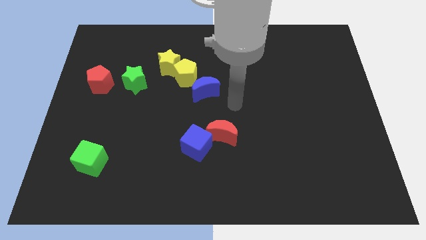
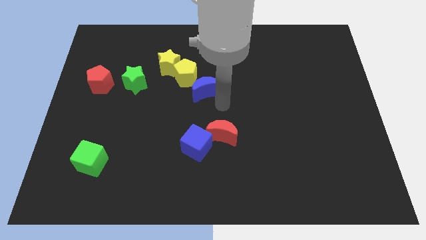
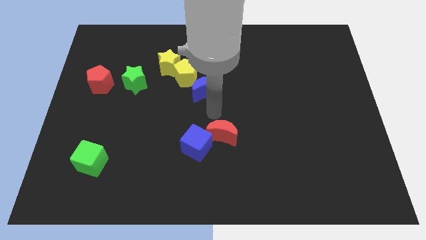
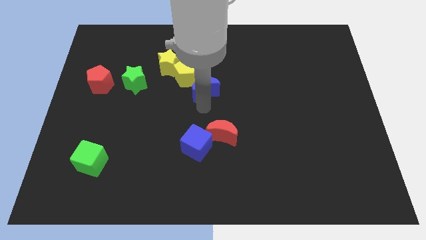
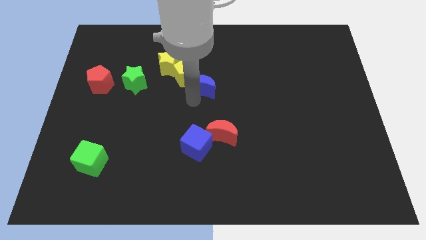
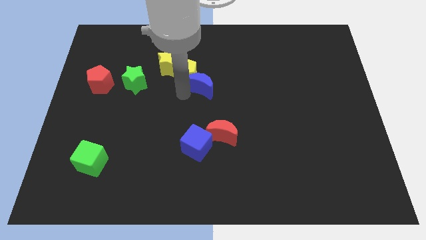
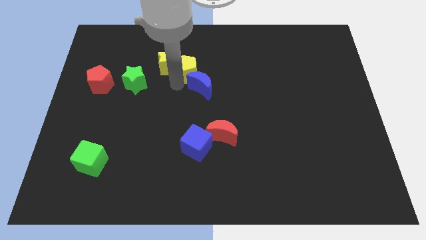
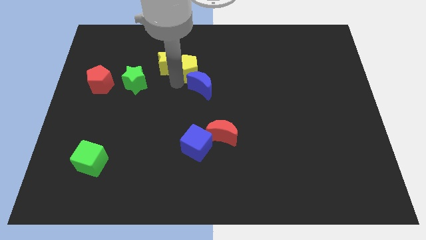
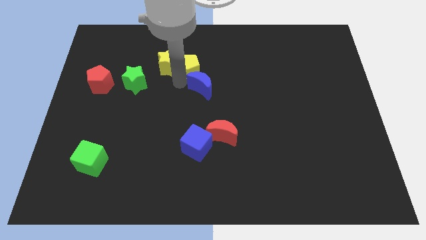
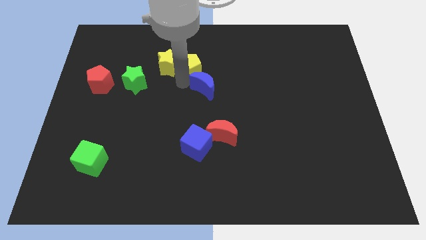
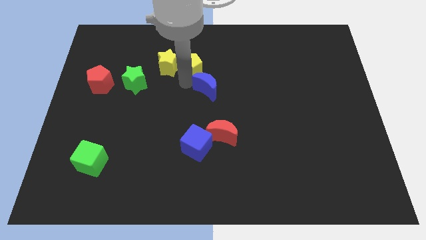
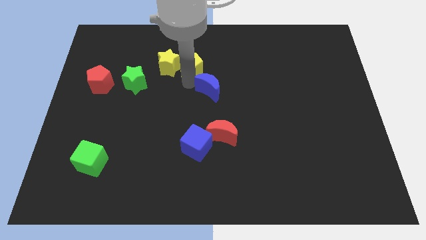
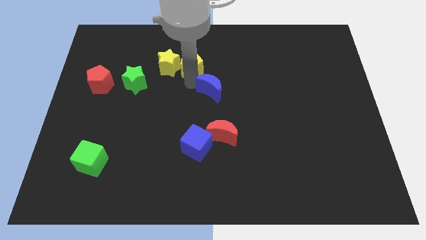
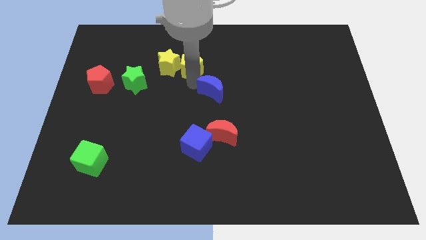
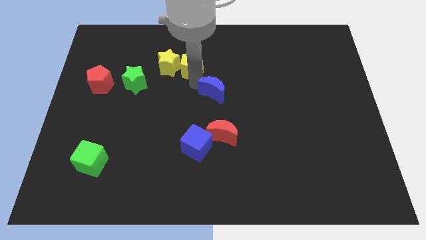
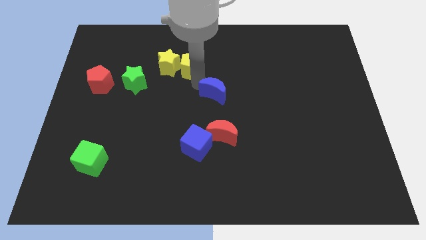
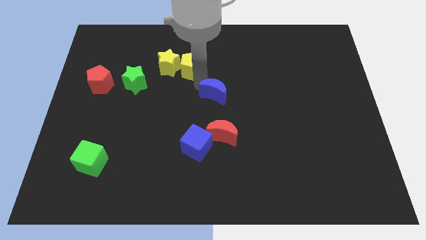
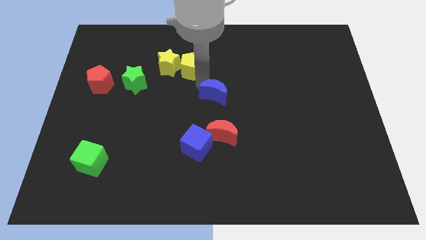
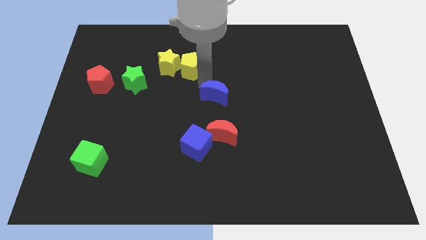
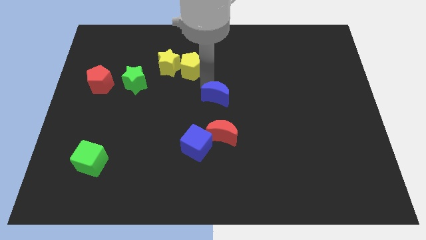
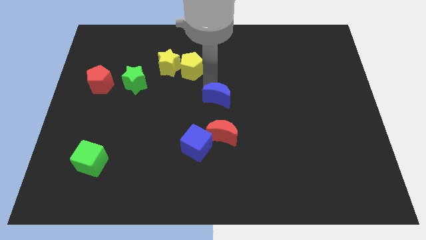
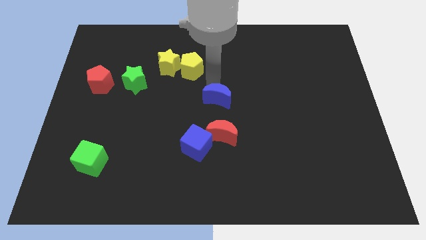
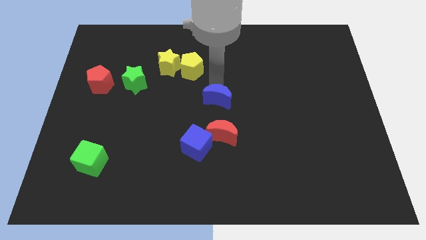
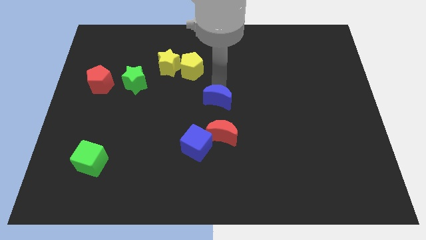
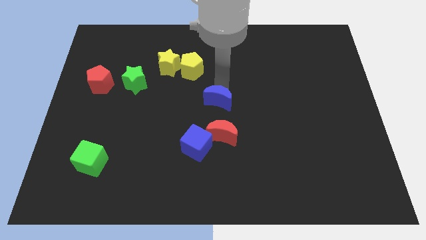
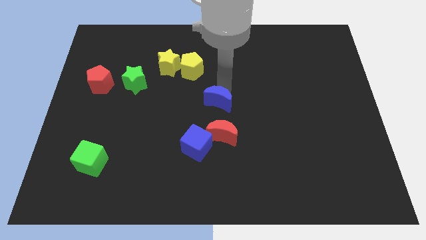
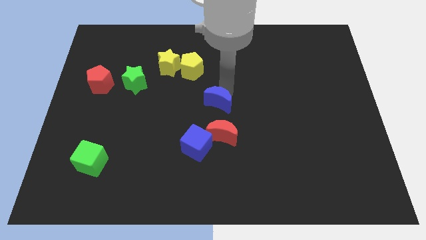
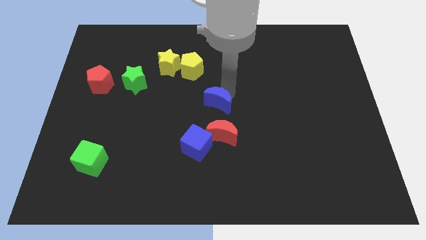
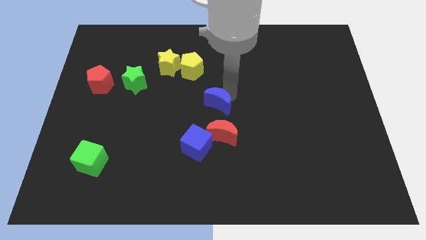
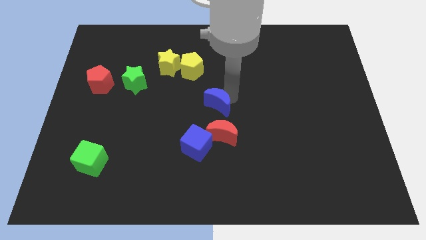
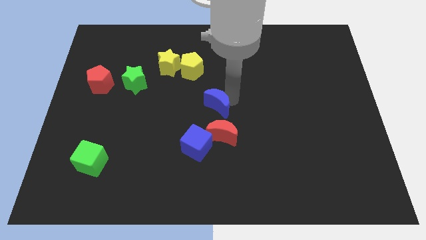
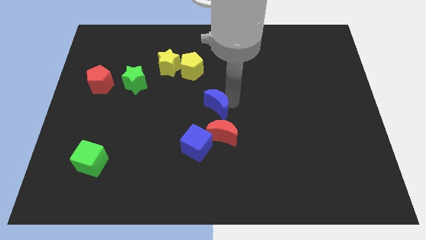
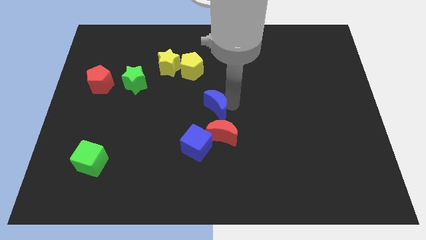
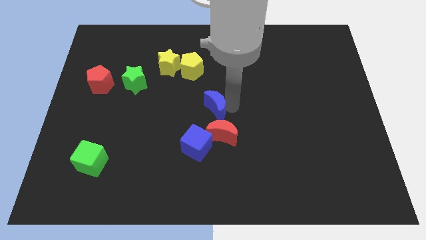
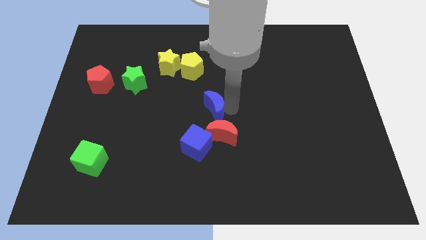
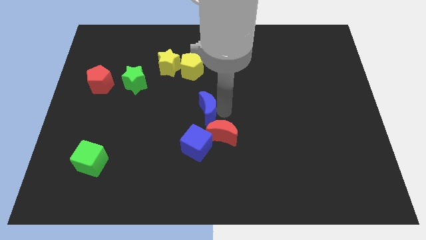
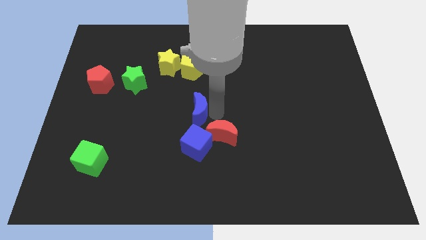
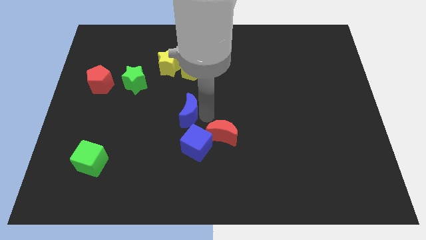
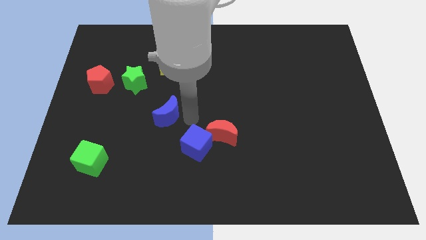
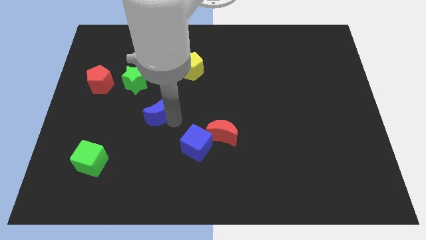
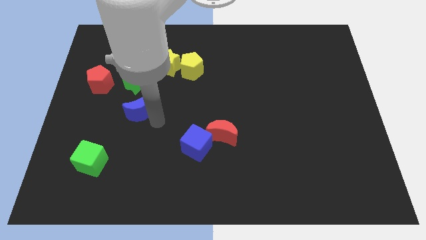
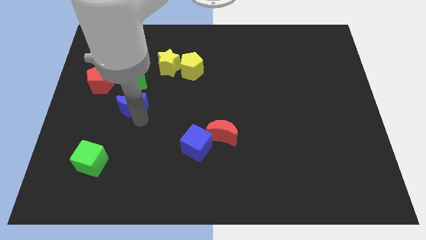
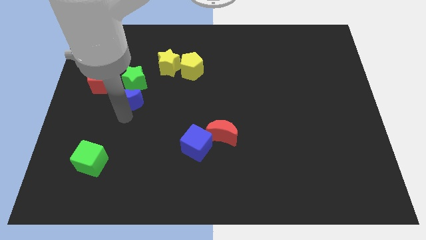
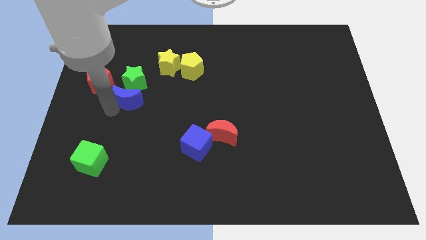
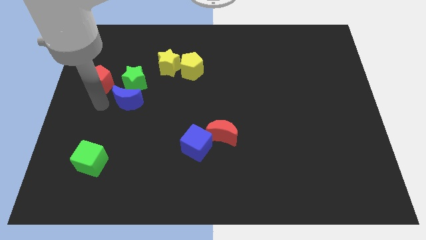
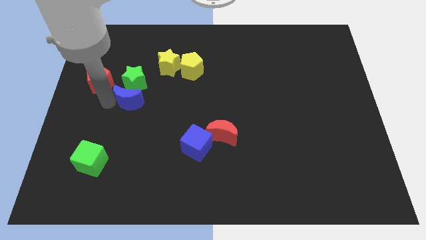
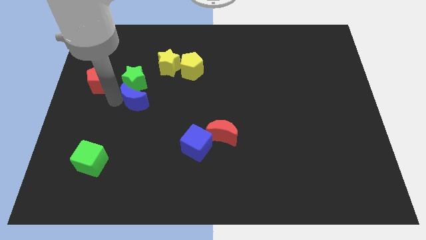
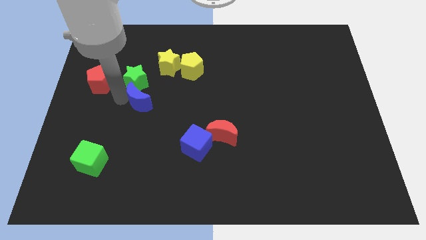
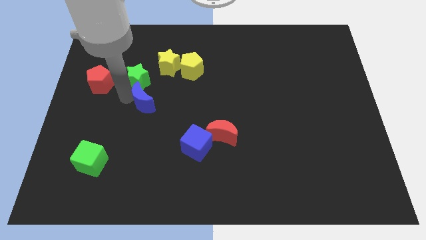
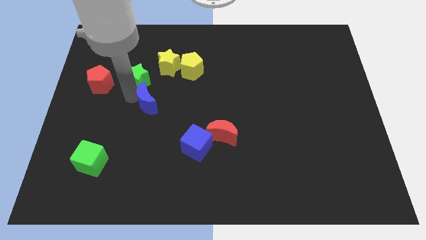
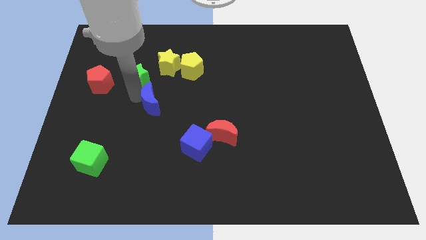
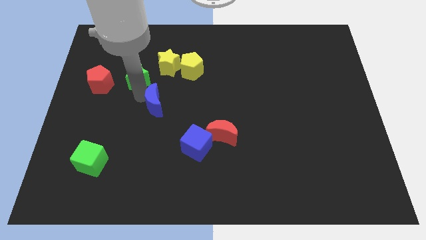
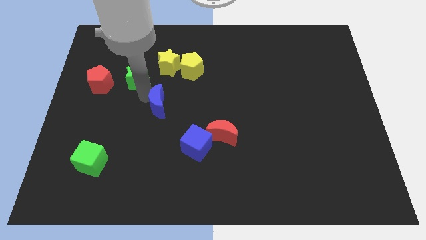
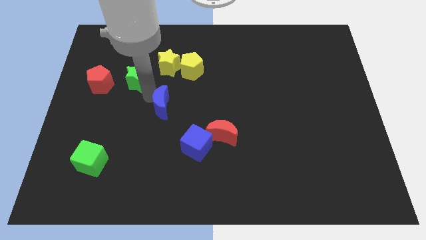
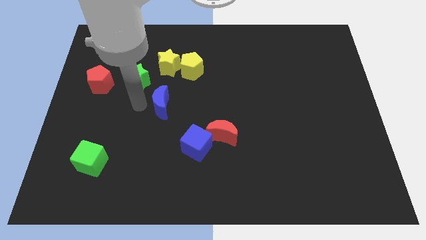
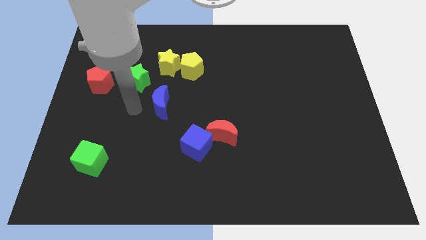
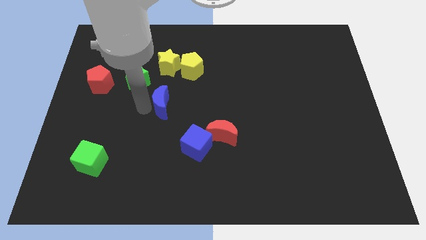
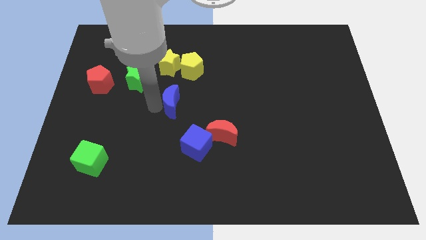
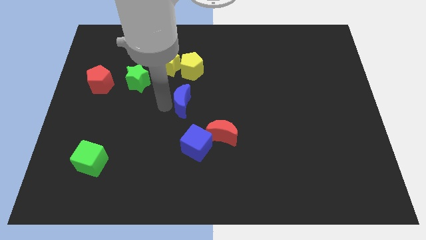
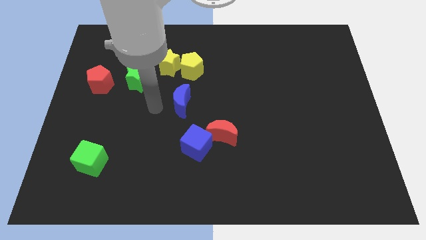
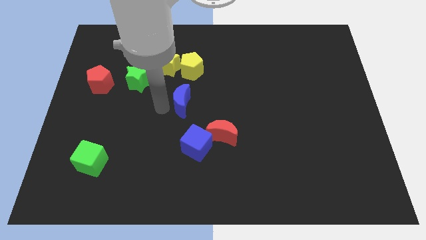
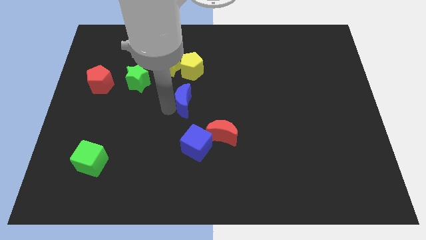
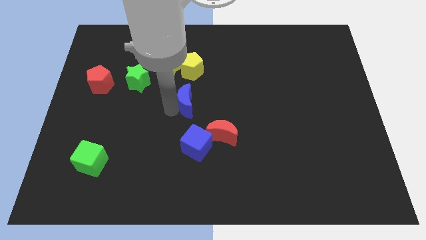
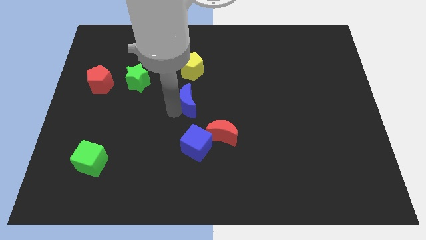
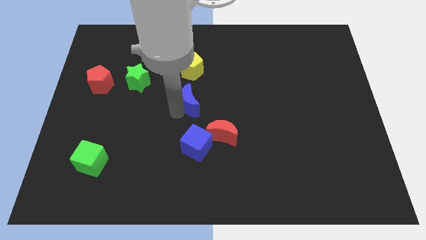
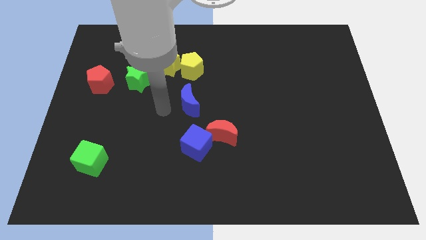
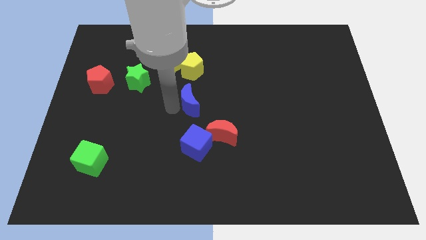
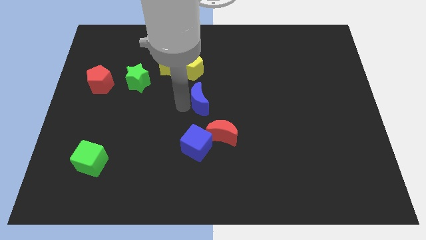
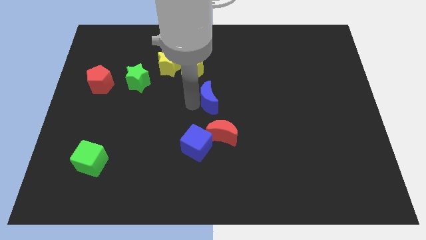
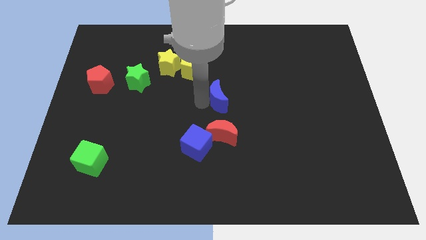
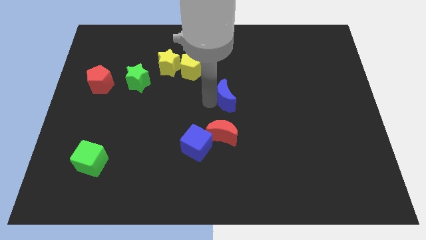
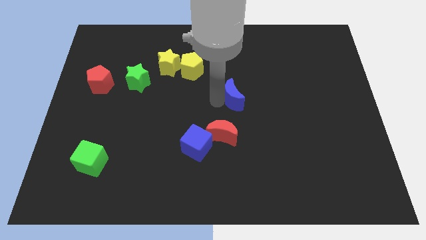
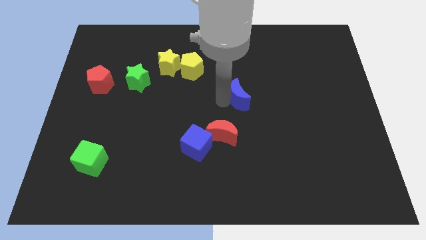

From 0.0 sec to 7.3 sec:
slide the blue moon to the right a little bit

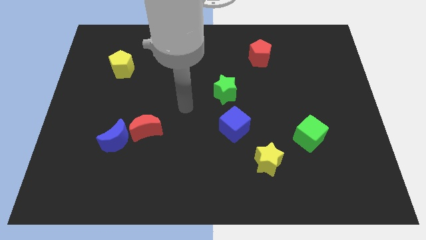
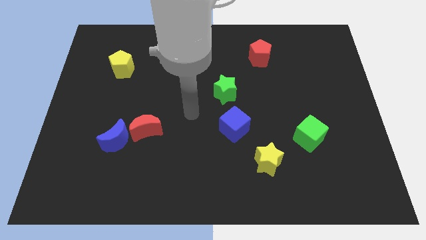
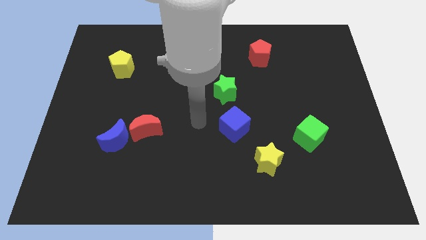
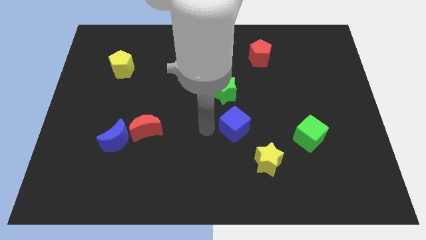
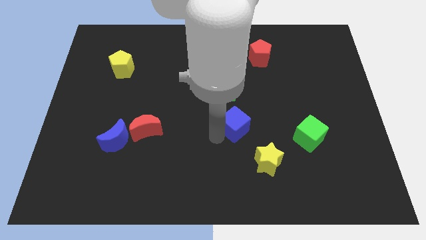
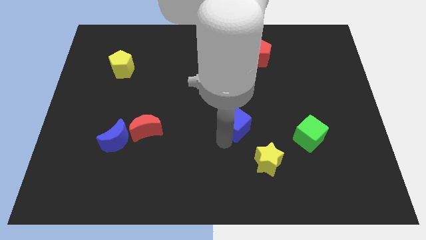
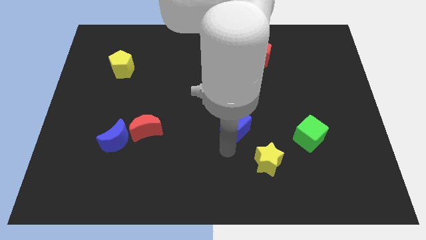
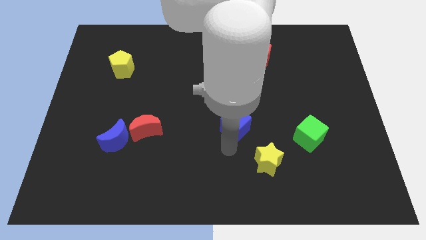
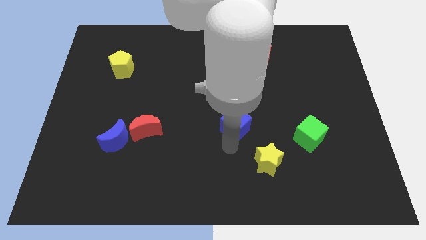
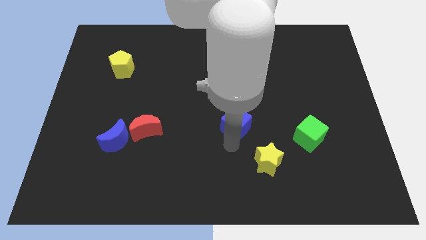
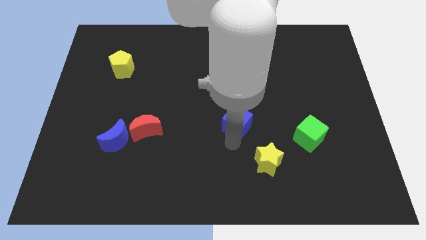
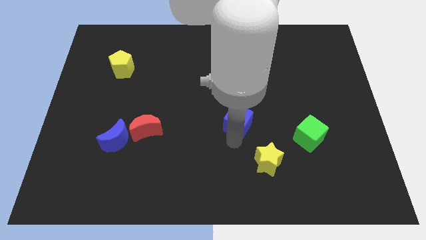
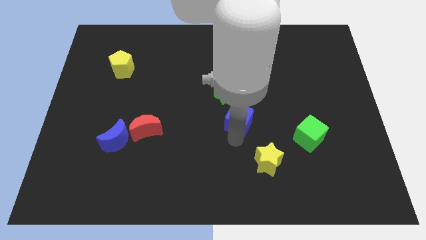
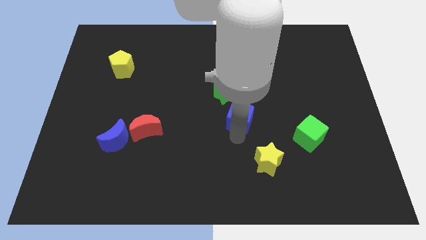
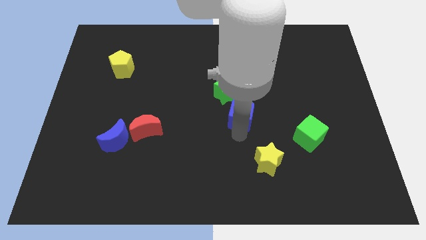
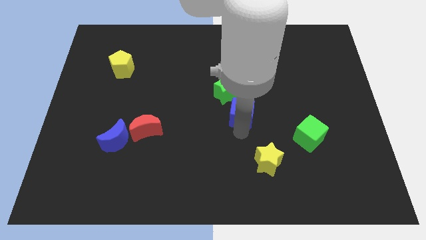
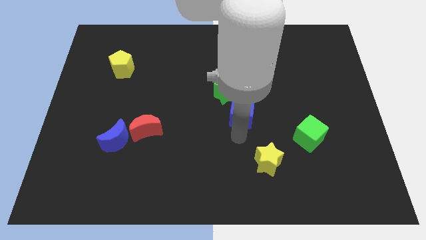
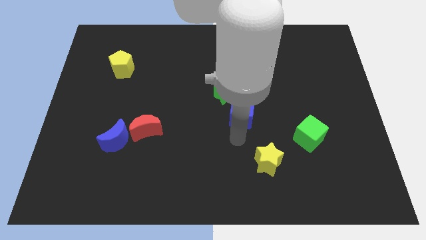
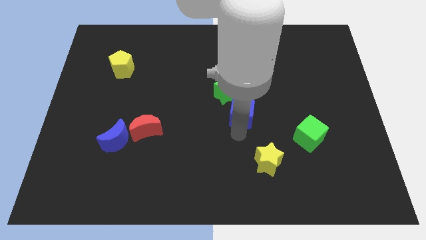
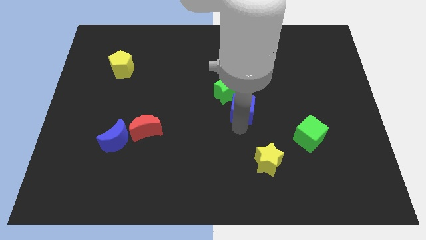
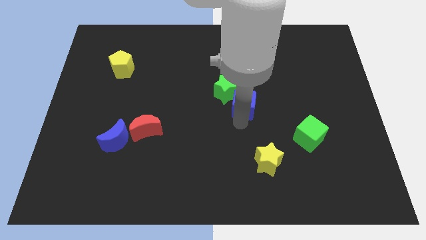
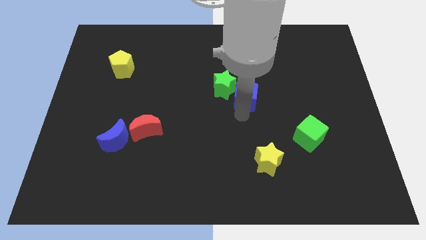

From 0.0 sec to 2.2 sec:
move the blue cube slightly up
